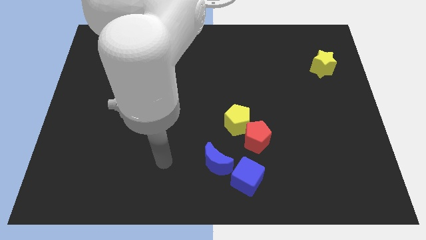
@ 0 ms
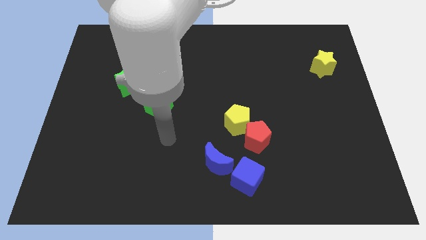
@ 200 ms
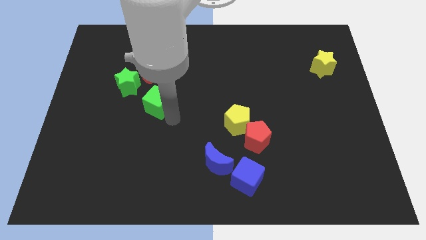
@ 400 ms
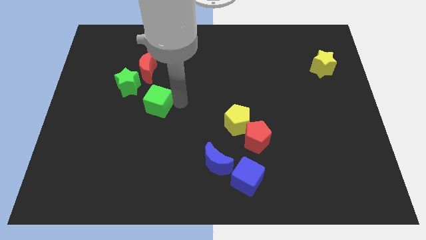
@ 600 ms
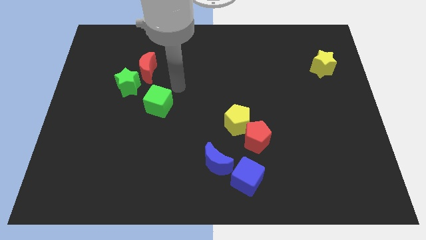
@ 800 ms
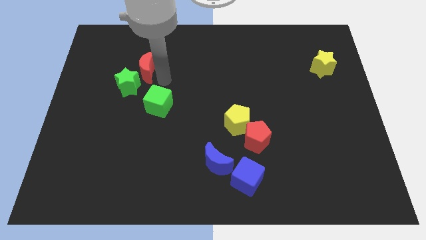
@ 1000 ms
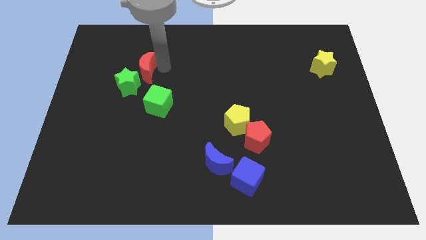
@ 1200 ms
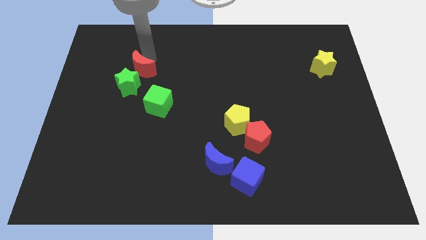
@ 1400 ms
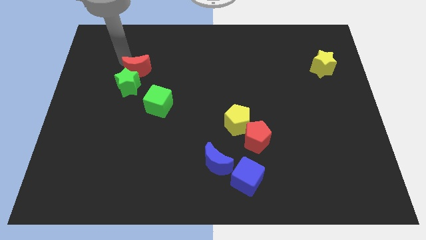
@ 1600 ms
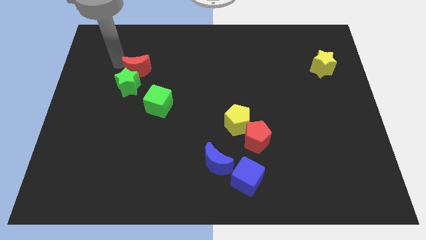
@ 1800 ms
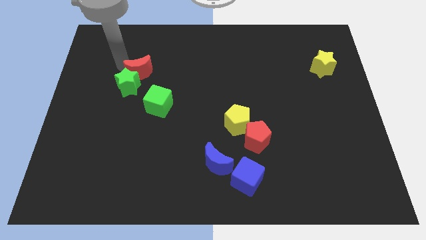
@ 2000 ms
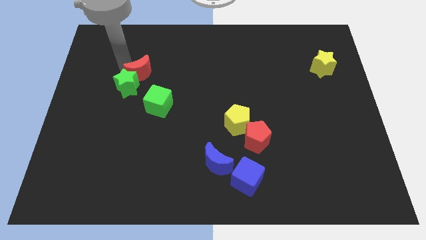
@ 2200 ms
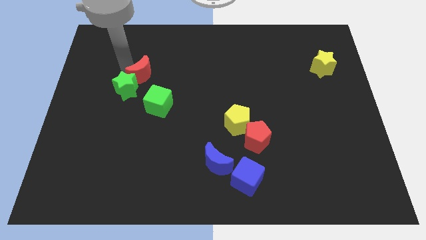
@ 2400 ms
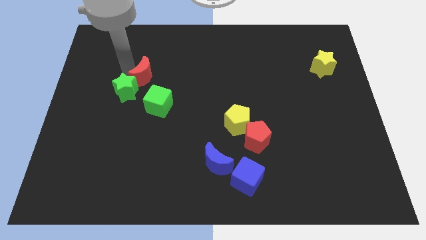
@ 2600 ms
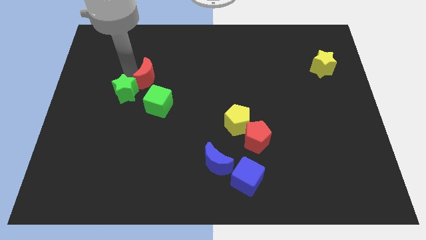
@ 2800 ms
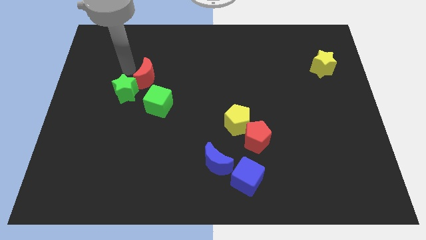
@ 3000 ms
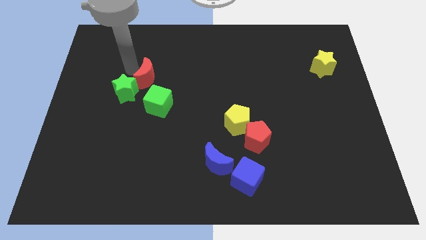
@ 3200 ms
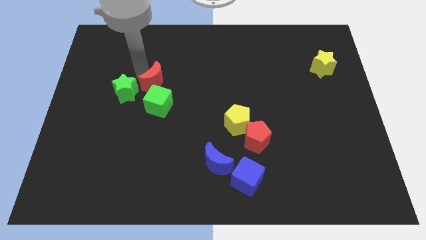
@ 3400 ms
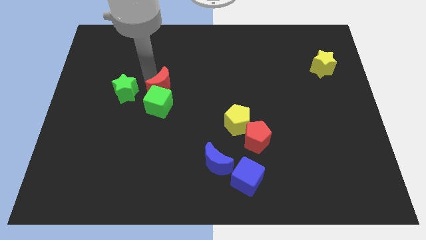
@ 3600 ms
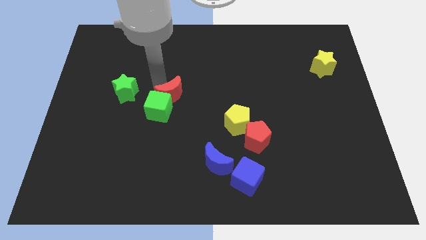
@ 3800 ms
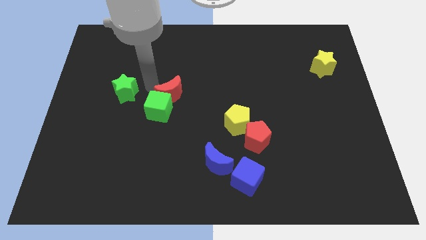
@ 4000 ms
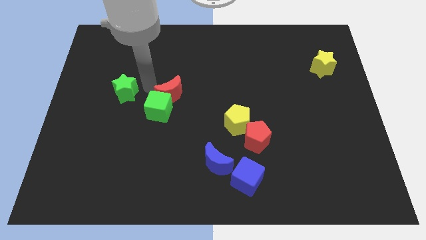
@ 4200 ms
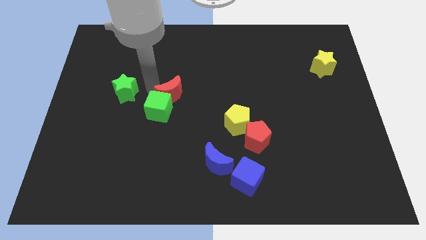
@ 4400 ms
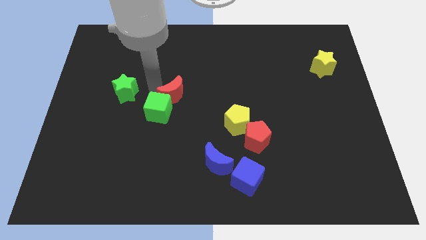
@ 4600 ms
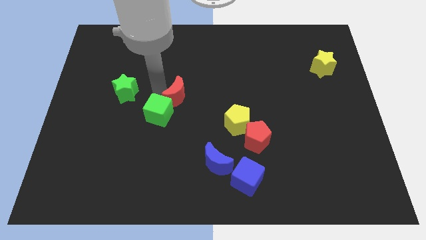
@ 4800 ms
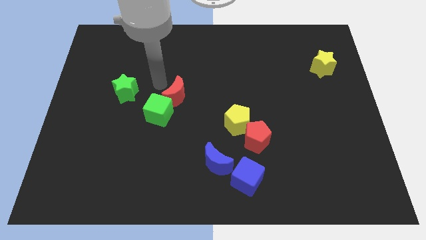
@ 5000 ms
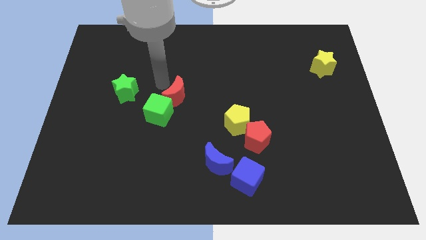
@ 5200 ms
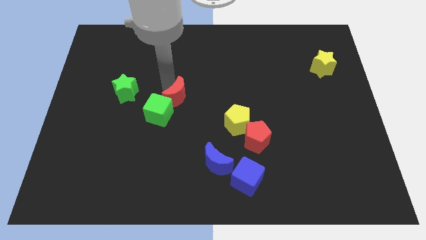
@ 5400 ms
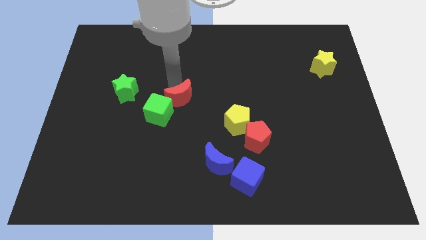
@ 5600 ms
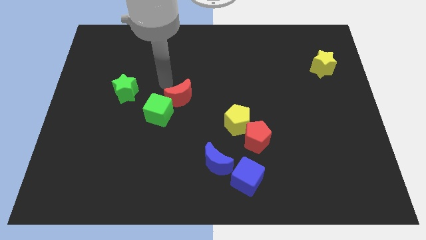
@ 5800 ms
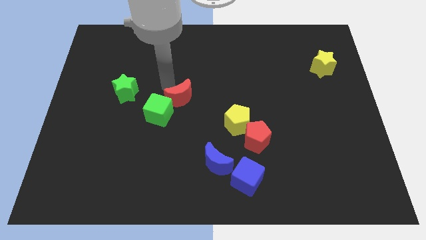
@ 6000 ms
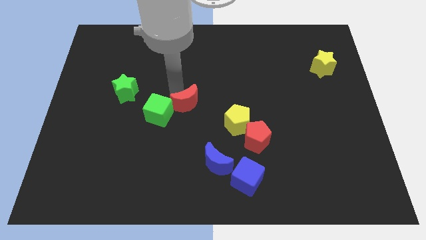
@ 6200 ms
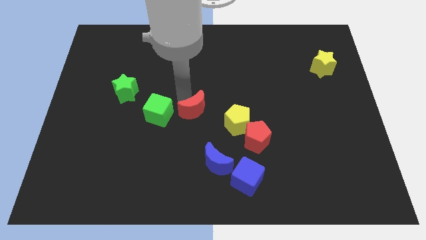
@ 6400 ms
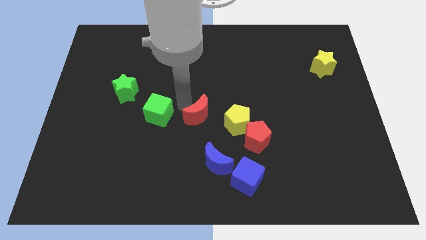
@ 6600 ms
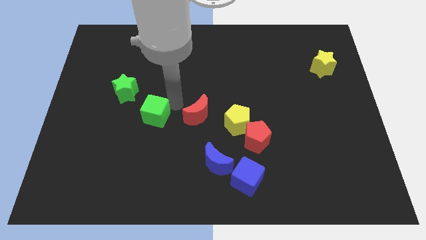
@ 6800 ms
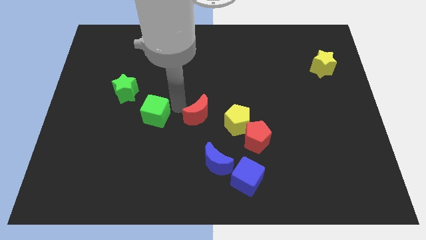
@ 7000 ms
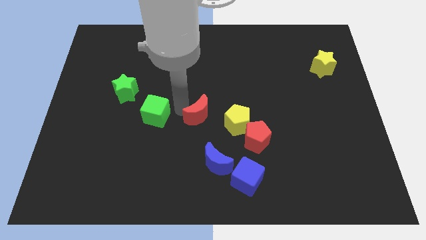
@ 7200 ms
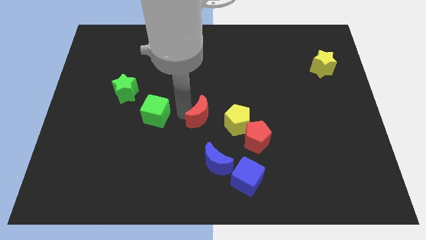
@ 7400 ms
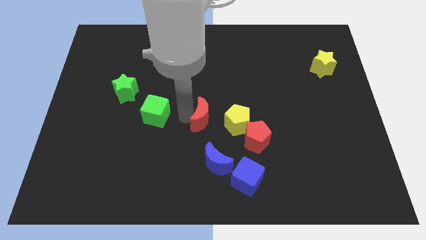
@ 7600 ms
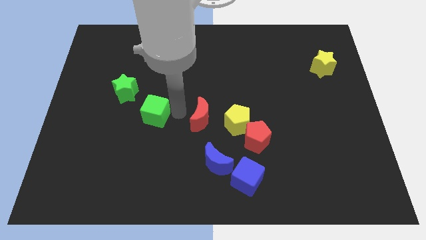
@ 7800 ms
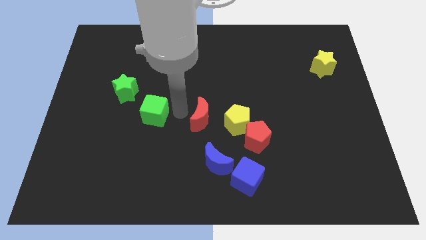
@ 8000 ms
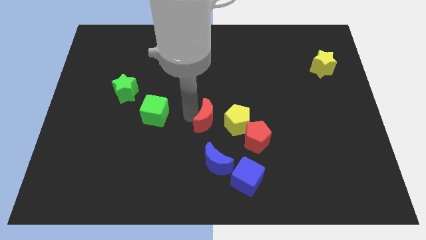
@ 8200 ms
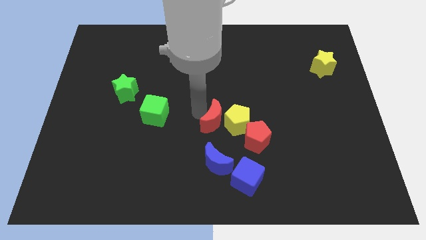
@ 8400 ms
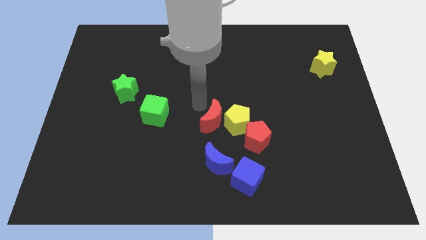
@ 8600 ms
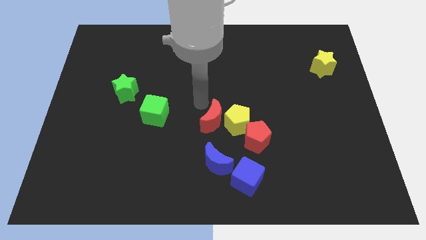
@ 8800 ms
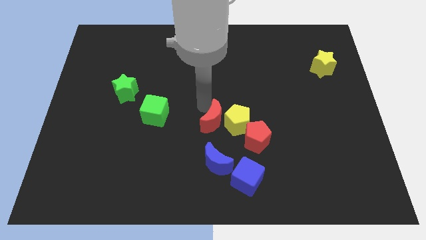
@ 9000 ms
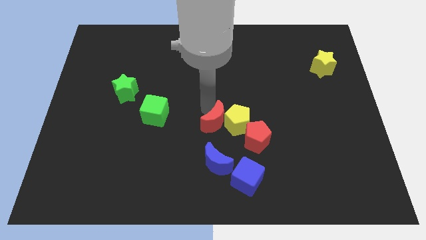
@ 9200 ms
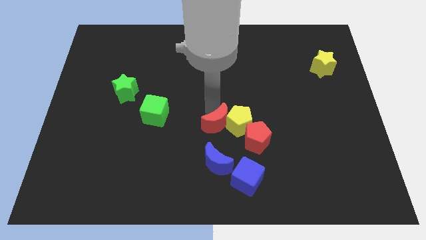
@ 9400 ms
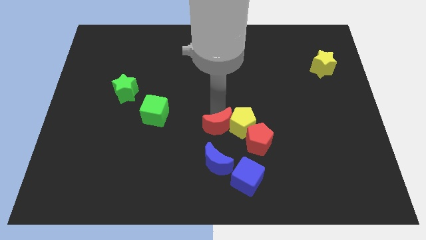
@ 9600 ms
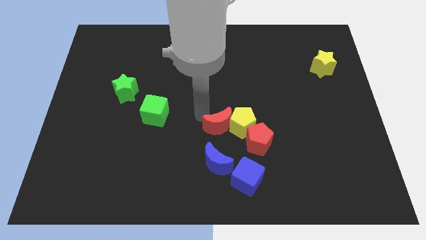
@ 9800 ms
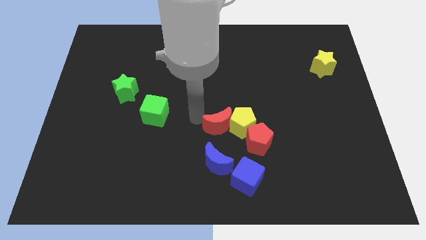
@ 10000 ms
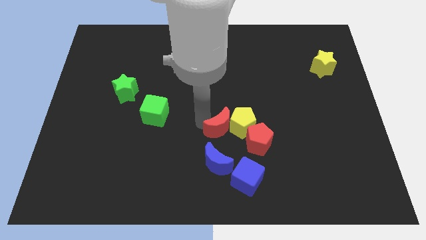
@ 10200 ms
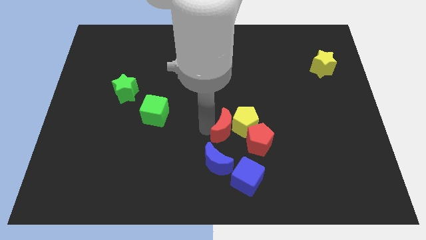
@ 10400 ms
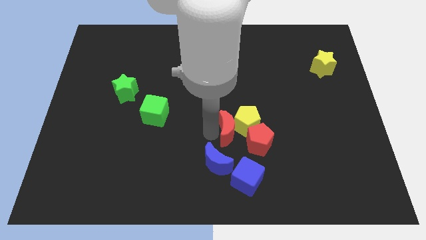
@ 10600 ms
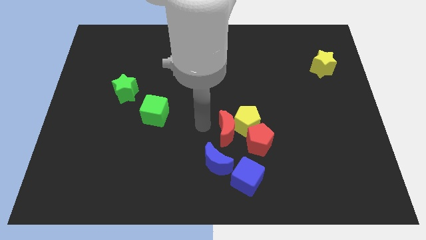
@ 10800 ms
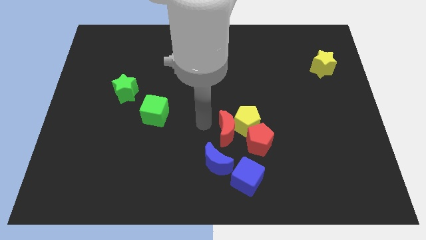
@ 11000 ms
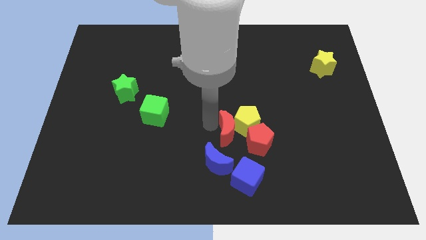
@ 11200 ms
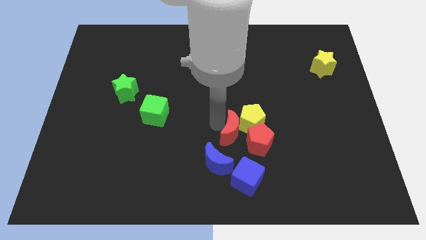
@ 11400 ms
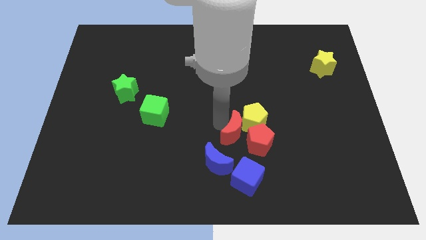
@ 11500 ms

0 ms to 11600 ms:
slide the red moon towards the red pentagon
